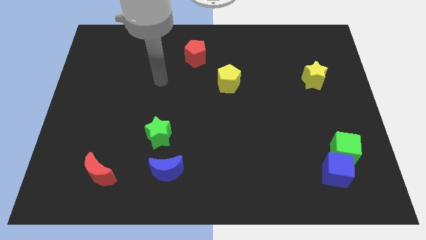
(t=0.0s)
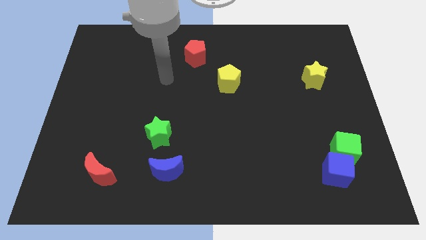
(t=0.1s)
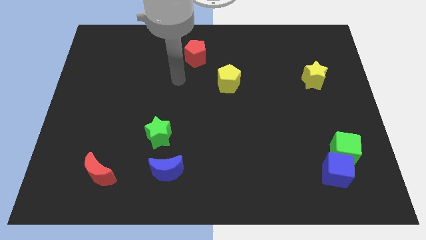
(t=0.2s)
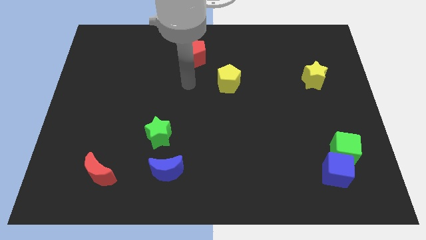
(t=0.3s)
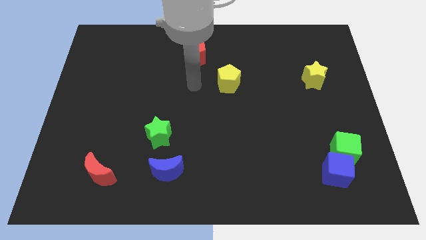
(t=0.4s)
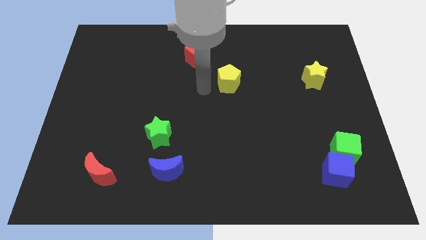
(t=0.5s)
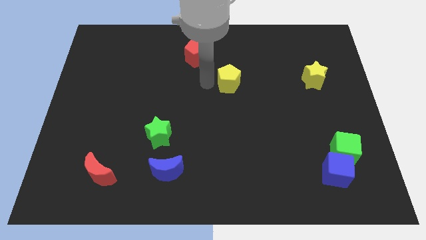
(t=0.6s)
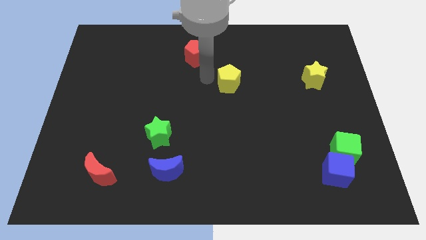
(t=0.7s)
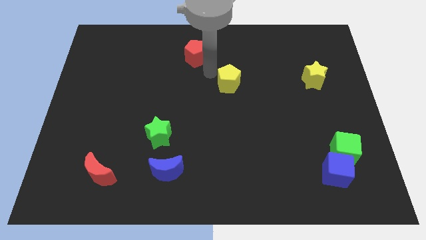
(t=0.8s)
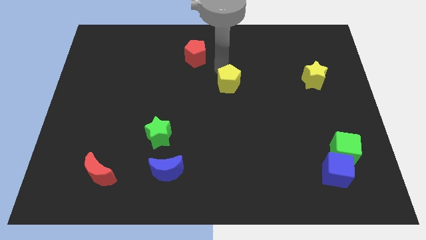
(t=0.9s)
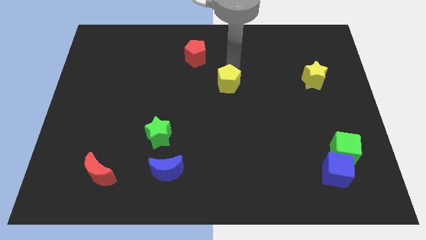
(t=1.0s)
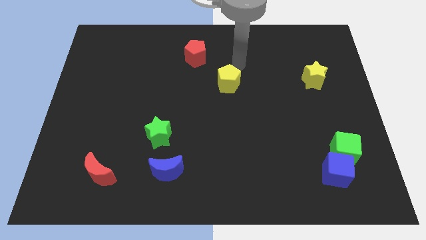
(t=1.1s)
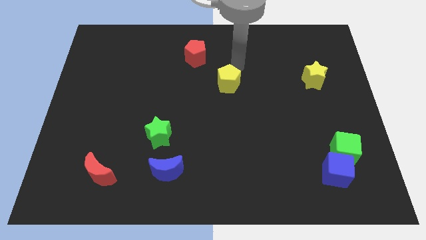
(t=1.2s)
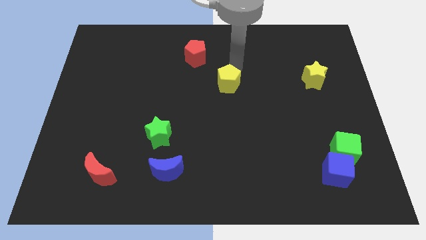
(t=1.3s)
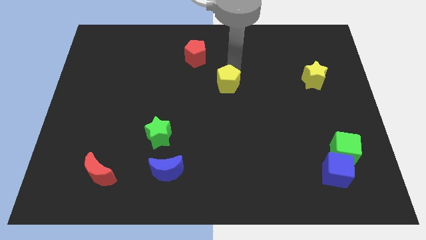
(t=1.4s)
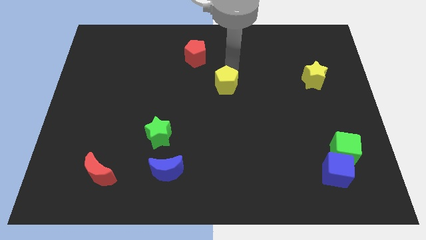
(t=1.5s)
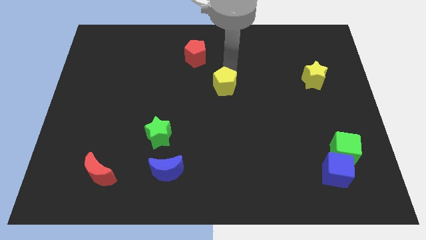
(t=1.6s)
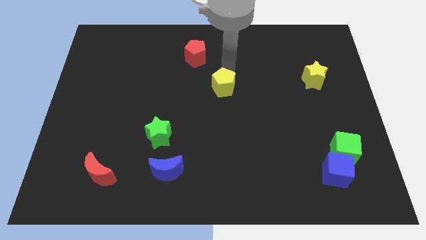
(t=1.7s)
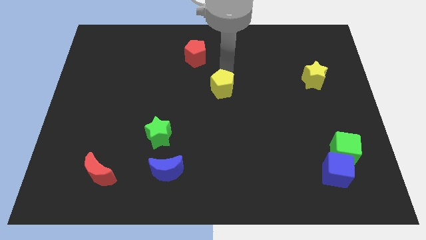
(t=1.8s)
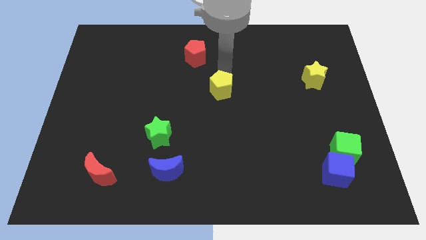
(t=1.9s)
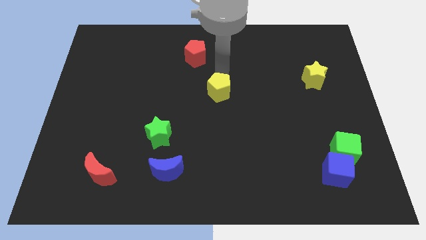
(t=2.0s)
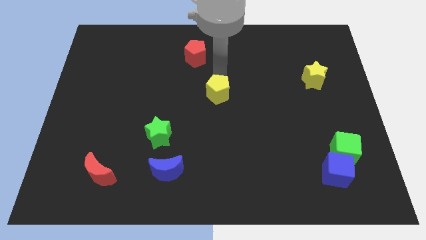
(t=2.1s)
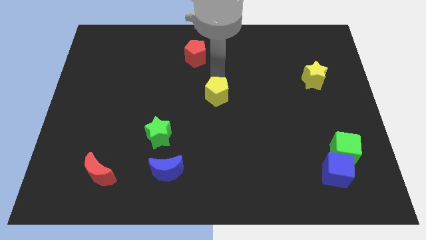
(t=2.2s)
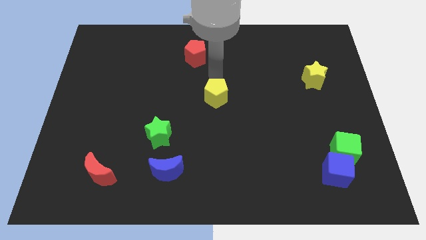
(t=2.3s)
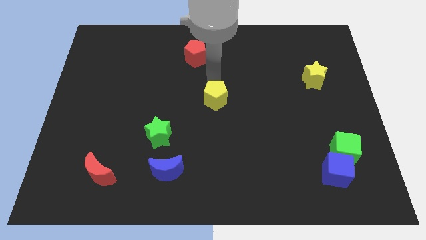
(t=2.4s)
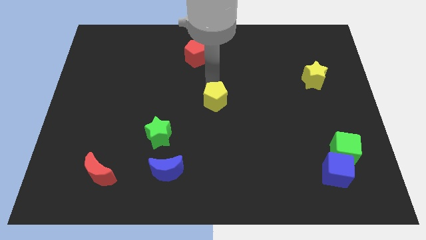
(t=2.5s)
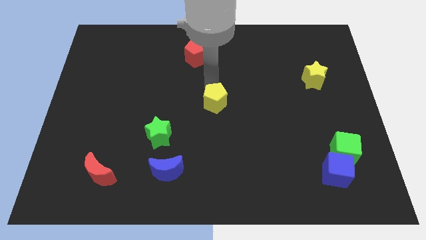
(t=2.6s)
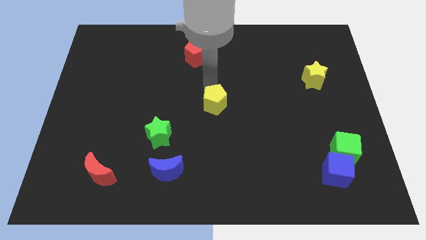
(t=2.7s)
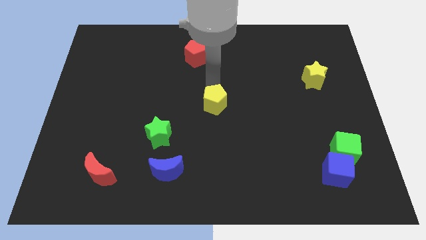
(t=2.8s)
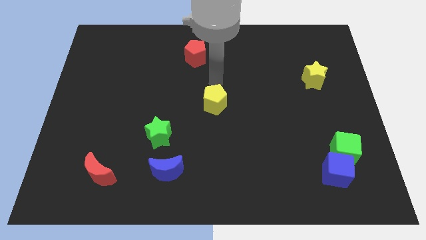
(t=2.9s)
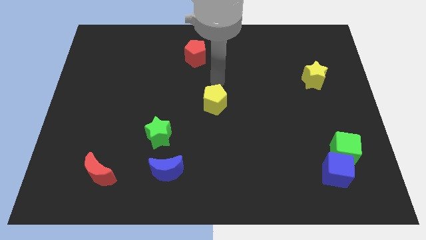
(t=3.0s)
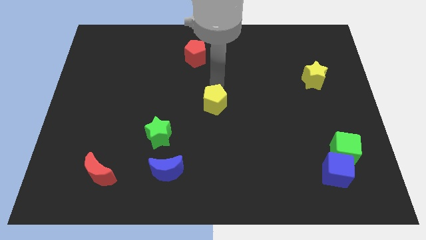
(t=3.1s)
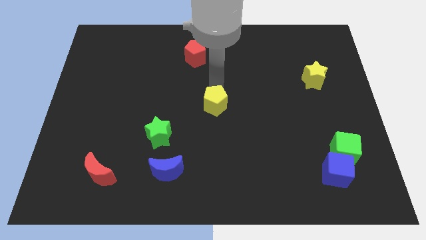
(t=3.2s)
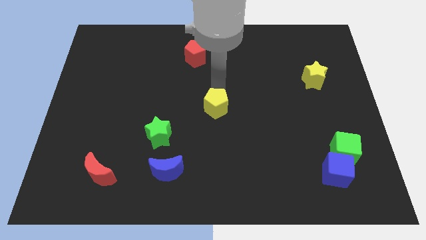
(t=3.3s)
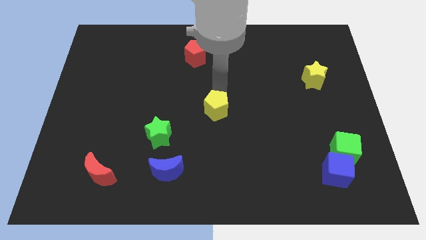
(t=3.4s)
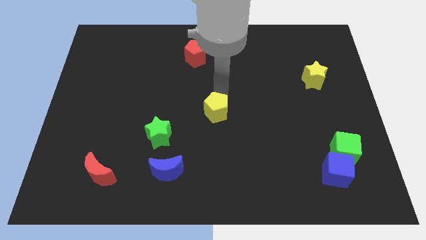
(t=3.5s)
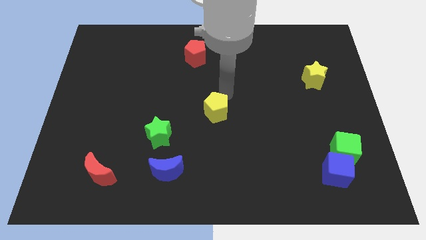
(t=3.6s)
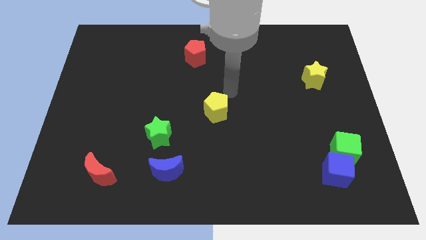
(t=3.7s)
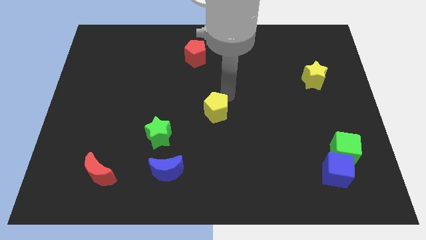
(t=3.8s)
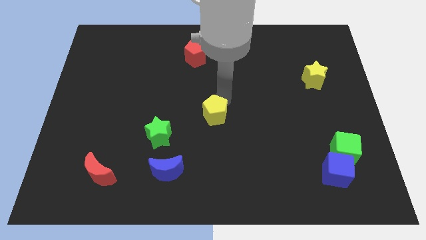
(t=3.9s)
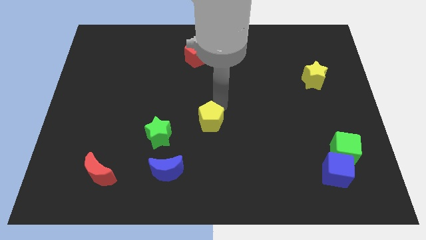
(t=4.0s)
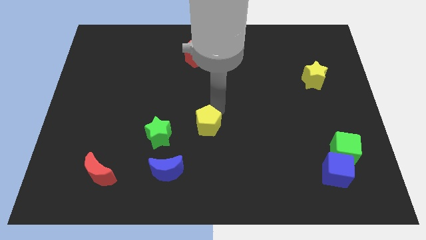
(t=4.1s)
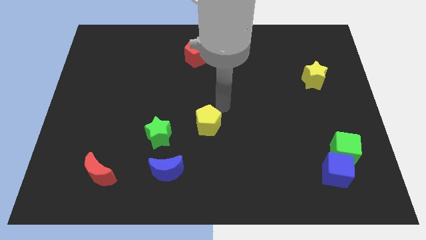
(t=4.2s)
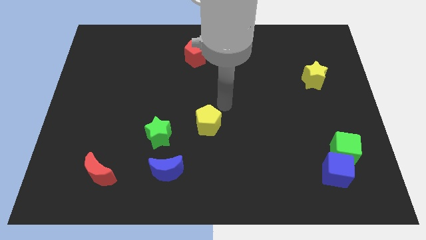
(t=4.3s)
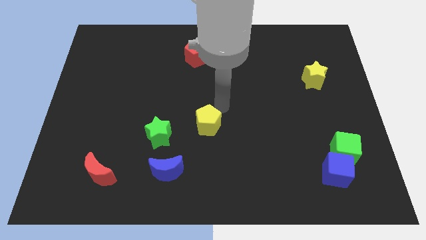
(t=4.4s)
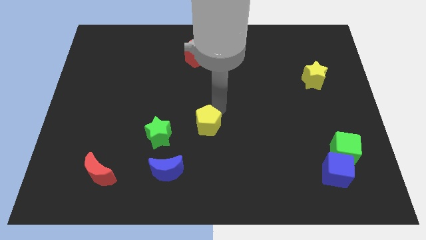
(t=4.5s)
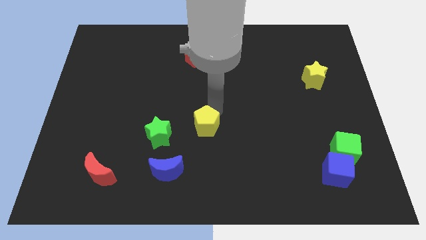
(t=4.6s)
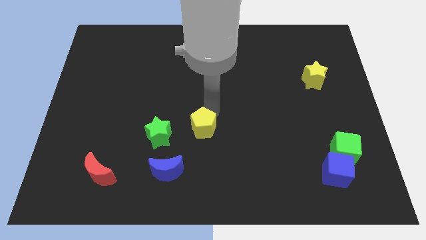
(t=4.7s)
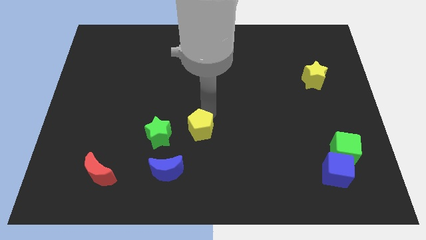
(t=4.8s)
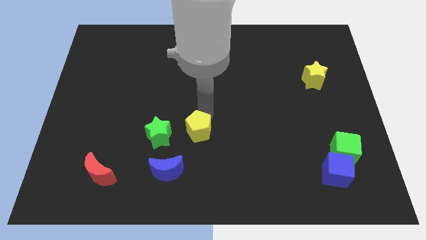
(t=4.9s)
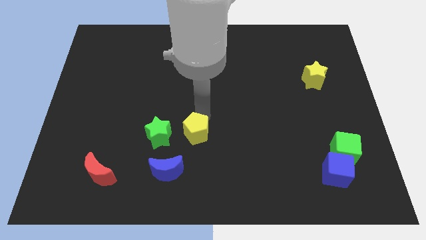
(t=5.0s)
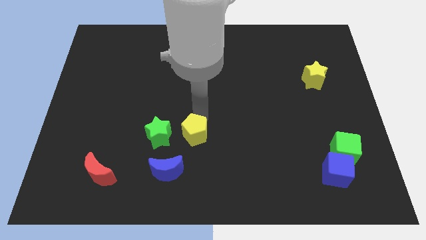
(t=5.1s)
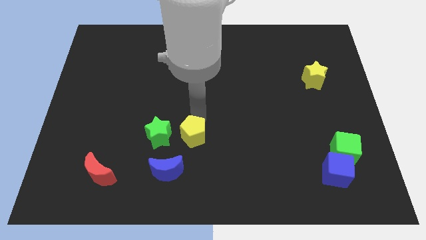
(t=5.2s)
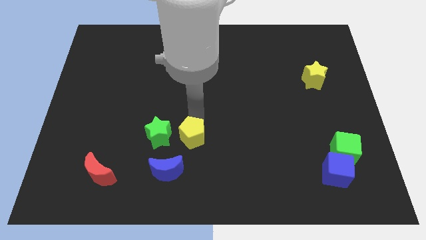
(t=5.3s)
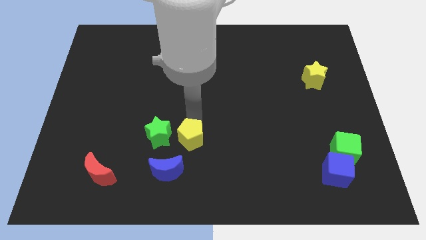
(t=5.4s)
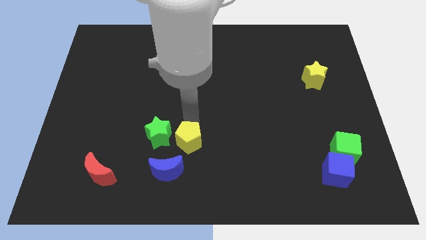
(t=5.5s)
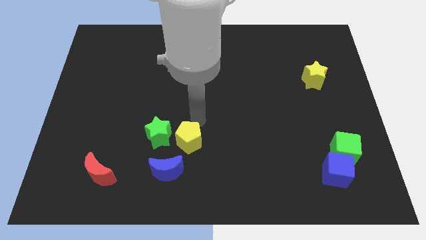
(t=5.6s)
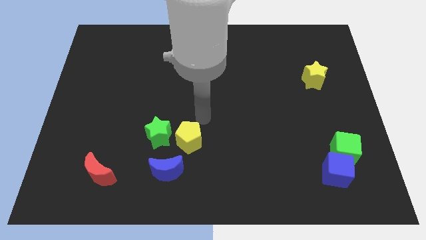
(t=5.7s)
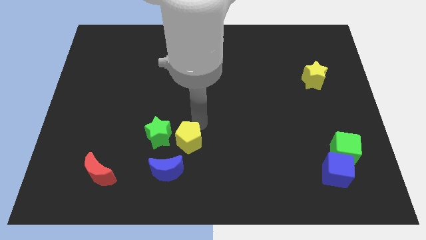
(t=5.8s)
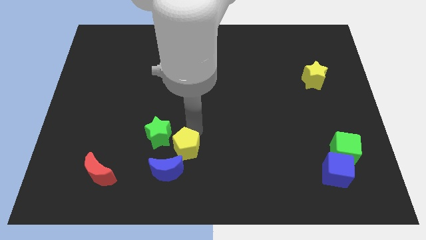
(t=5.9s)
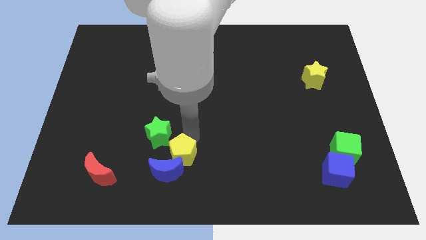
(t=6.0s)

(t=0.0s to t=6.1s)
slide the yellow pentagon towards the blue moon

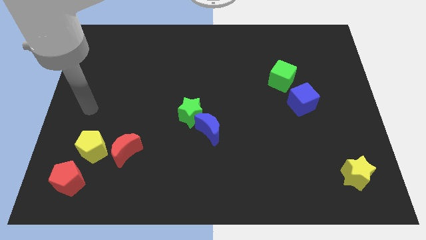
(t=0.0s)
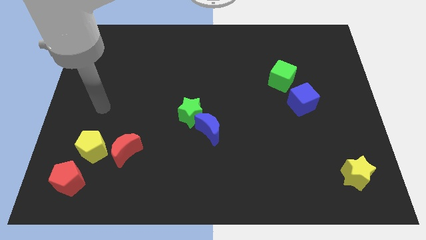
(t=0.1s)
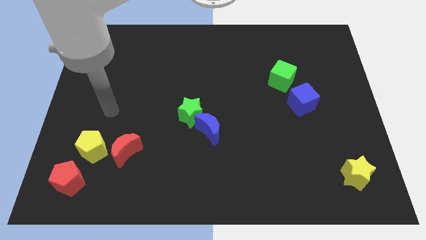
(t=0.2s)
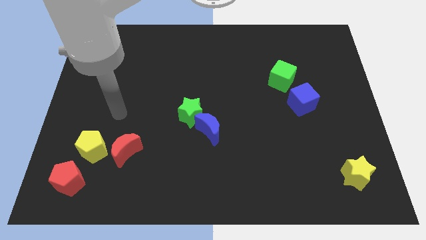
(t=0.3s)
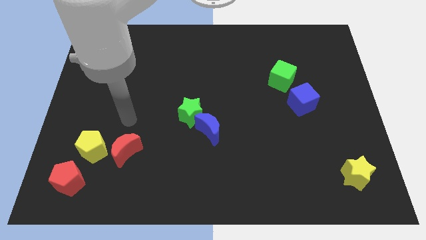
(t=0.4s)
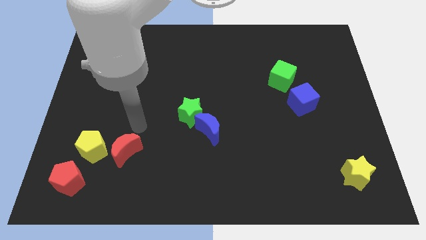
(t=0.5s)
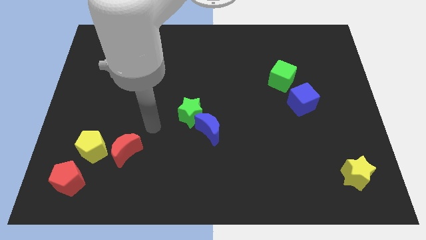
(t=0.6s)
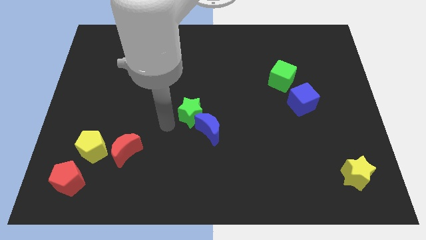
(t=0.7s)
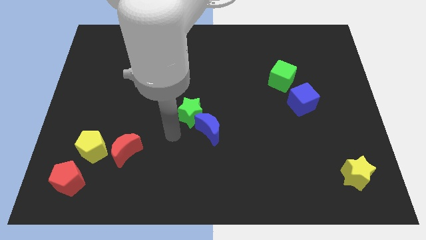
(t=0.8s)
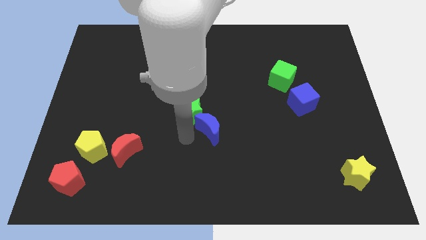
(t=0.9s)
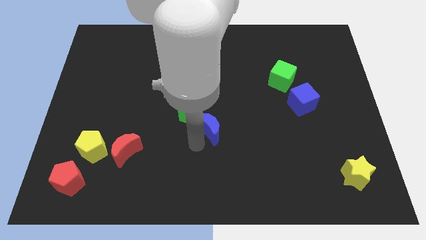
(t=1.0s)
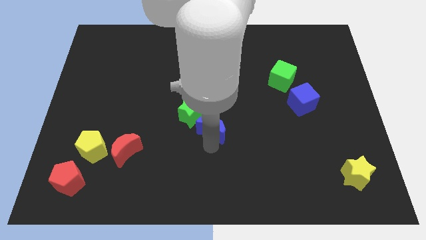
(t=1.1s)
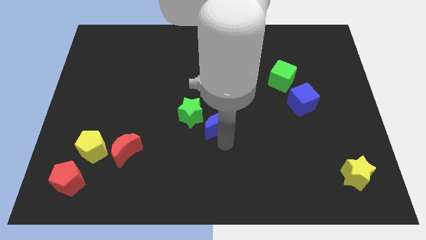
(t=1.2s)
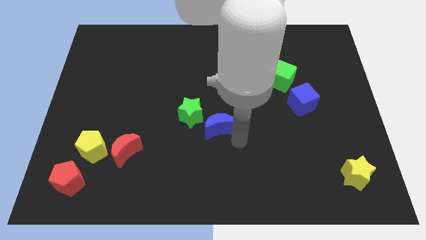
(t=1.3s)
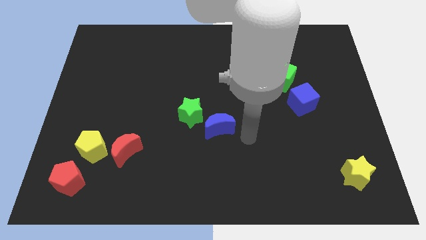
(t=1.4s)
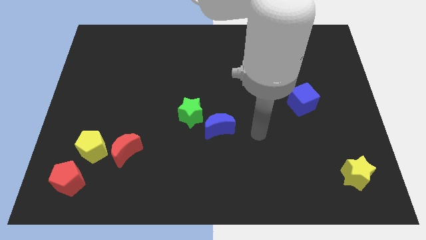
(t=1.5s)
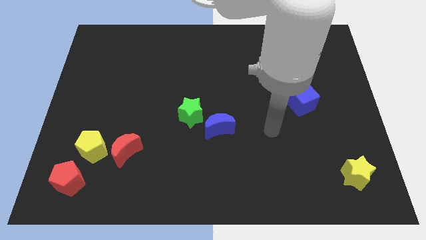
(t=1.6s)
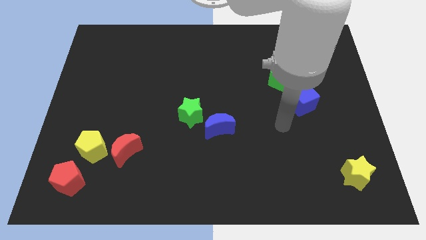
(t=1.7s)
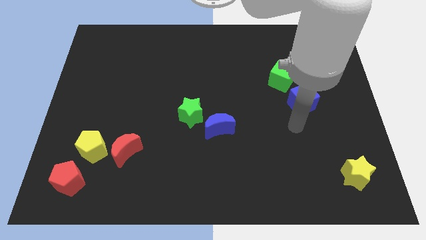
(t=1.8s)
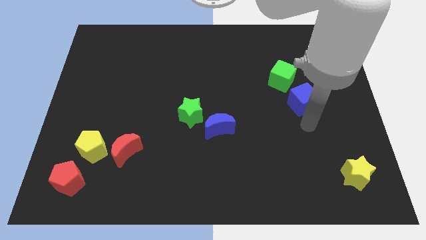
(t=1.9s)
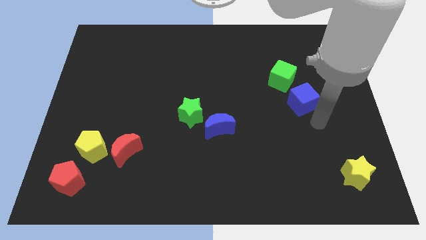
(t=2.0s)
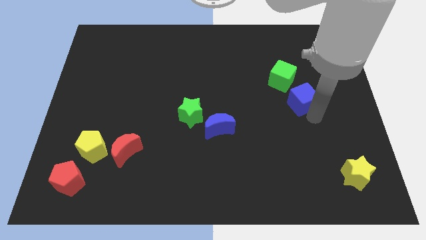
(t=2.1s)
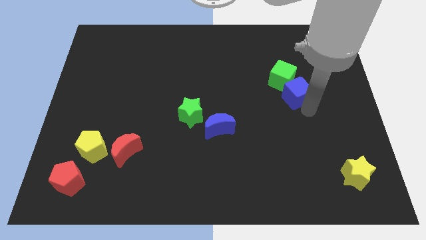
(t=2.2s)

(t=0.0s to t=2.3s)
put the blue cube next to the green cube
